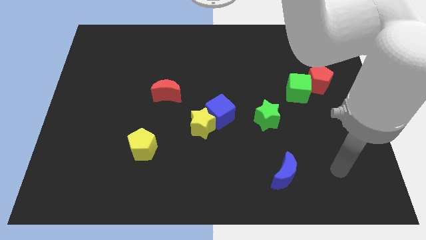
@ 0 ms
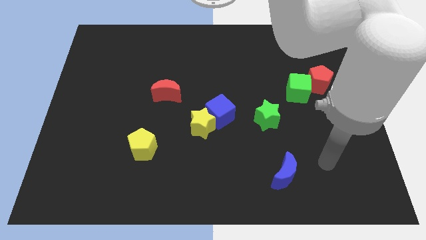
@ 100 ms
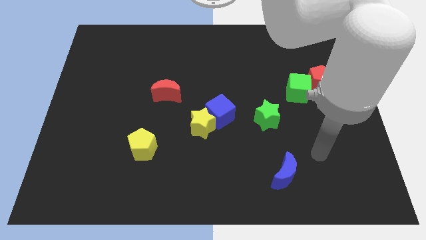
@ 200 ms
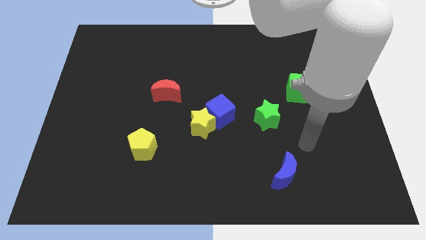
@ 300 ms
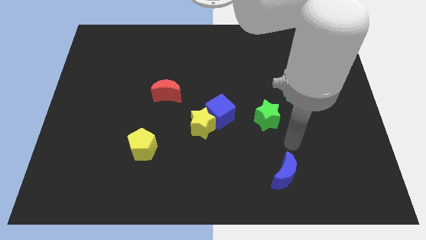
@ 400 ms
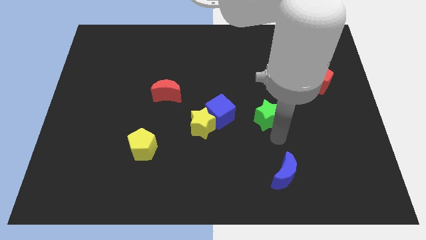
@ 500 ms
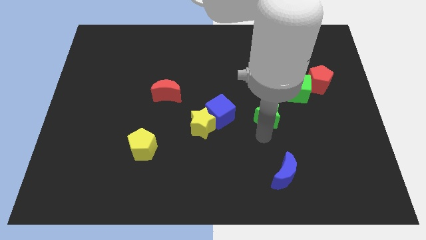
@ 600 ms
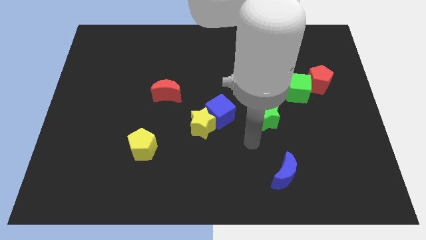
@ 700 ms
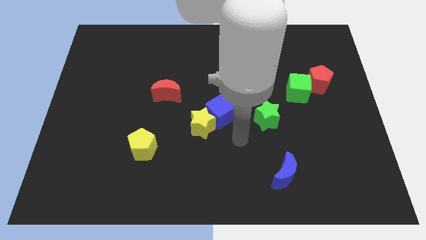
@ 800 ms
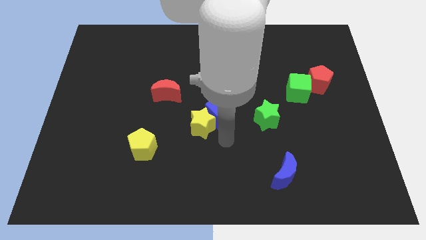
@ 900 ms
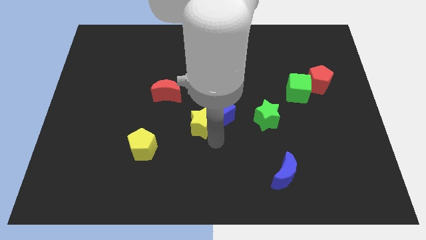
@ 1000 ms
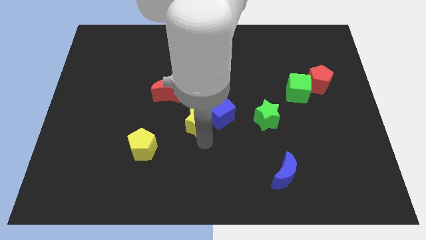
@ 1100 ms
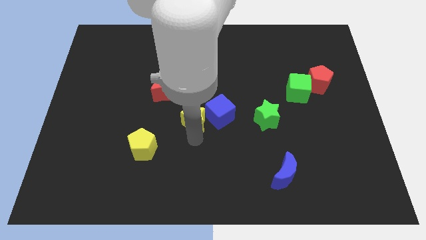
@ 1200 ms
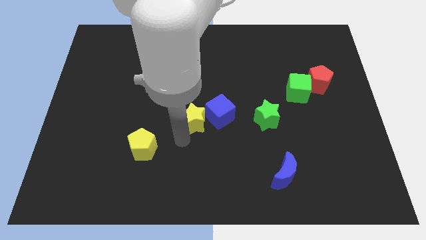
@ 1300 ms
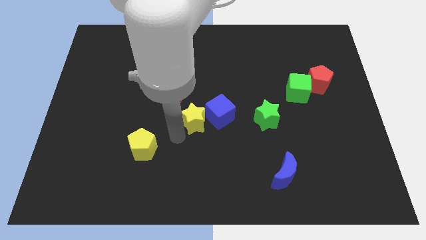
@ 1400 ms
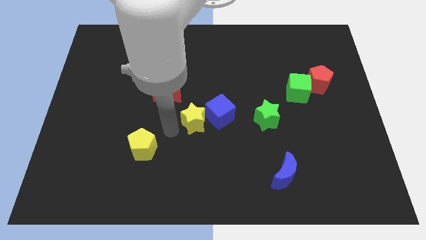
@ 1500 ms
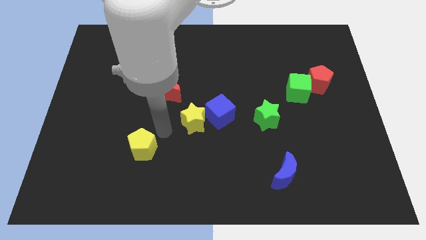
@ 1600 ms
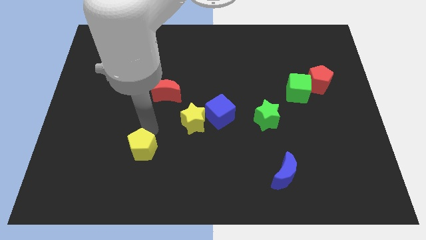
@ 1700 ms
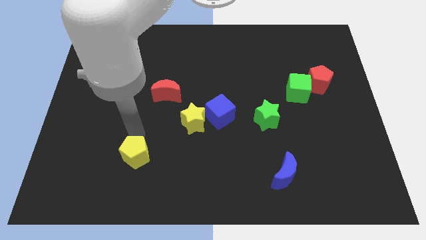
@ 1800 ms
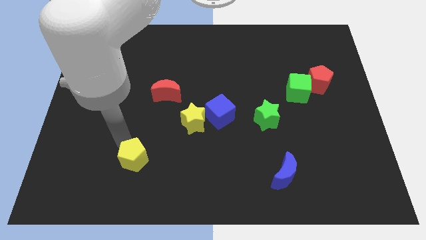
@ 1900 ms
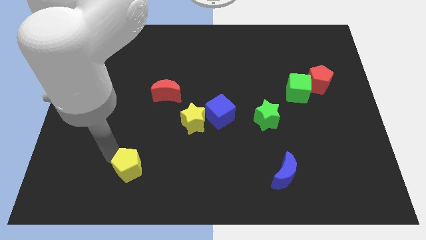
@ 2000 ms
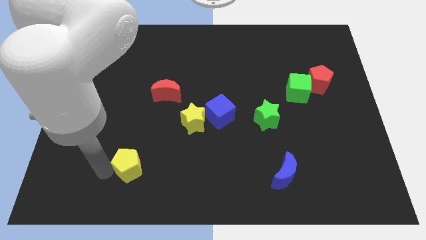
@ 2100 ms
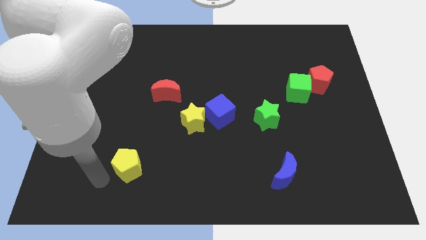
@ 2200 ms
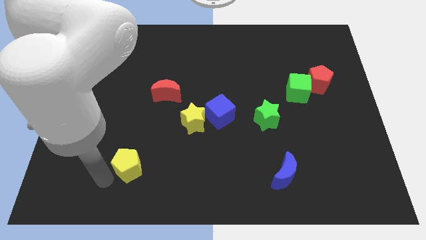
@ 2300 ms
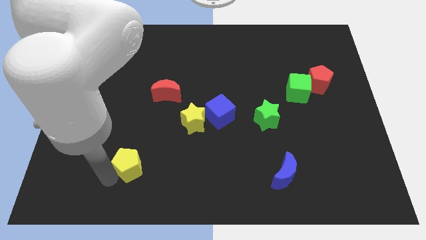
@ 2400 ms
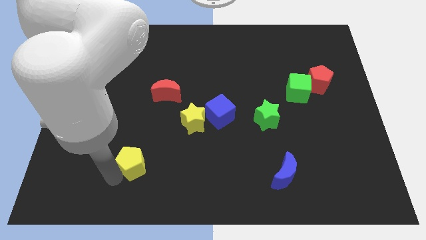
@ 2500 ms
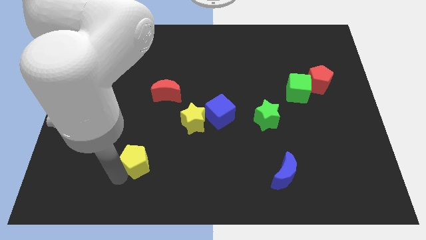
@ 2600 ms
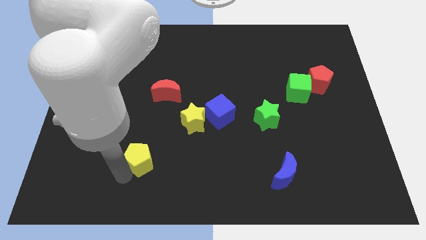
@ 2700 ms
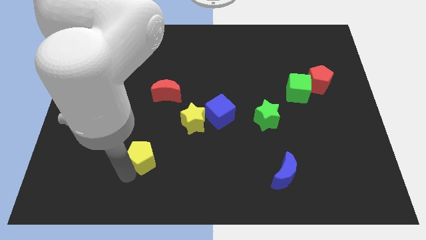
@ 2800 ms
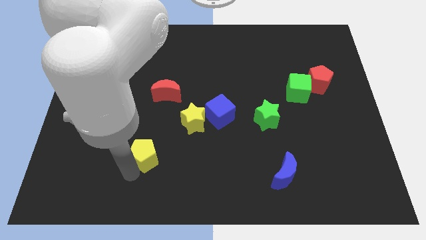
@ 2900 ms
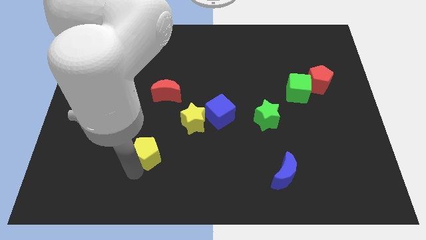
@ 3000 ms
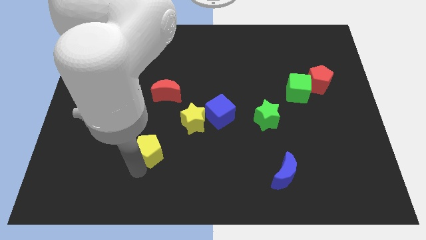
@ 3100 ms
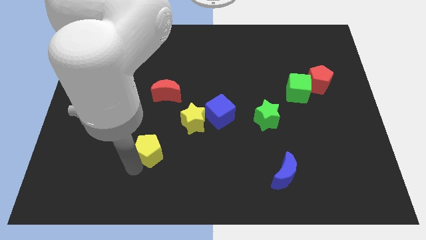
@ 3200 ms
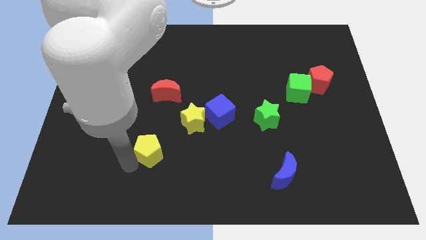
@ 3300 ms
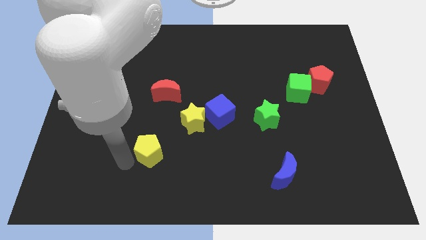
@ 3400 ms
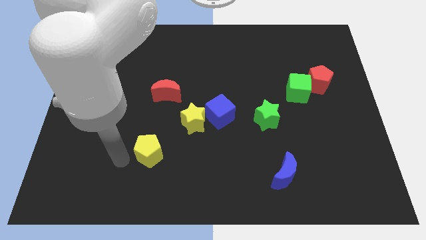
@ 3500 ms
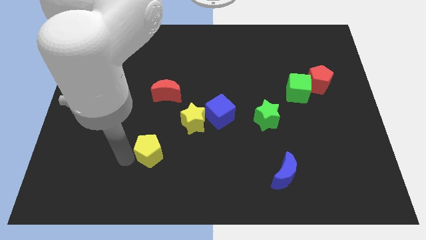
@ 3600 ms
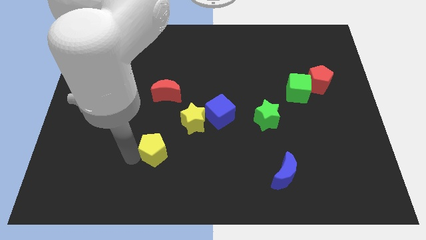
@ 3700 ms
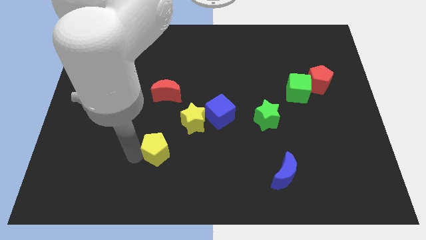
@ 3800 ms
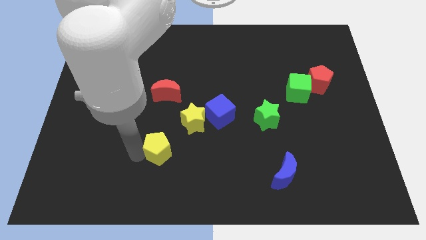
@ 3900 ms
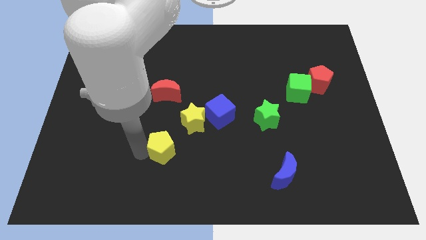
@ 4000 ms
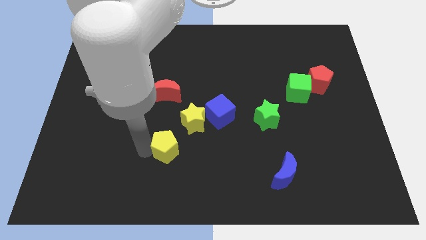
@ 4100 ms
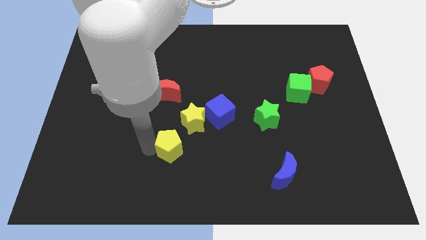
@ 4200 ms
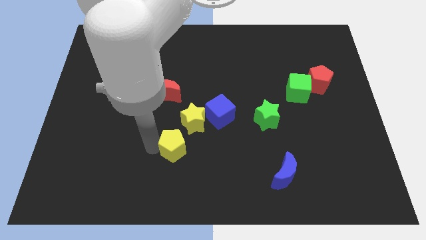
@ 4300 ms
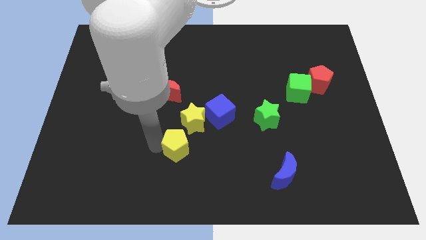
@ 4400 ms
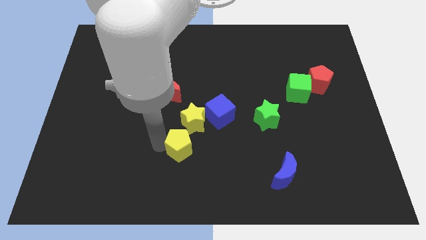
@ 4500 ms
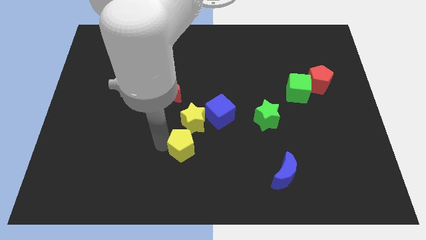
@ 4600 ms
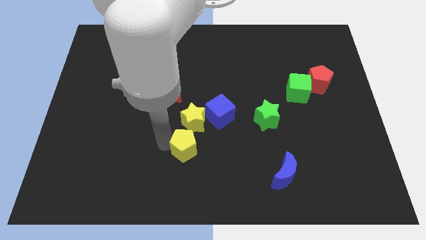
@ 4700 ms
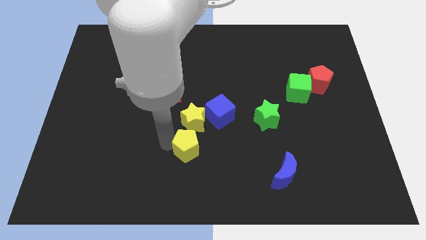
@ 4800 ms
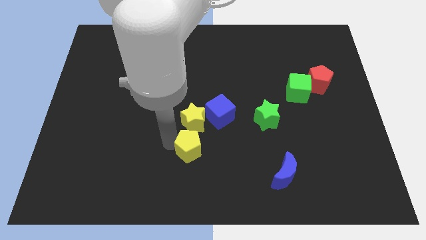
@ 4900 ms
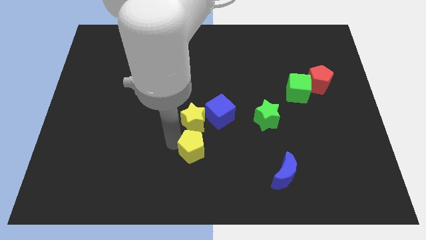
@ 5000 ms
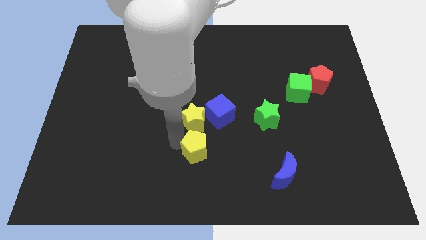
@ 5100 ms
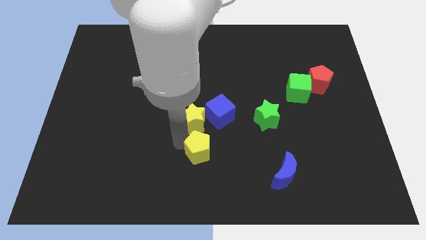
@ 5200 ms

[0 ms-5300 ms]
push the yellow pentagon below the blue cube

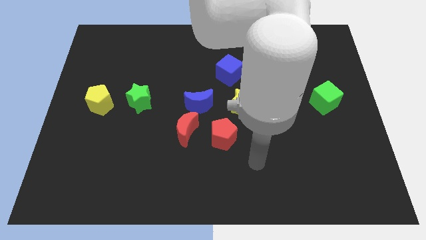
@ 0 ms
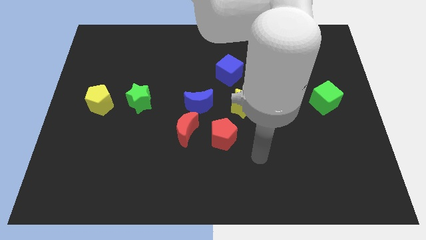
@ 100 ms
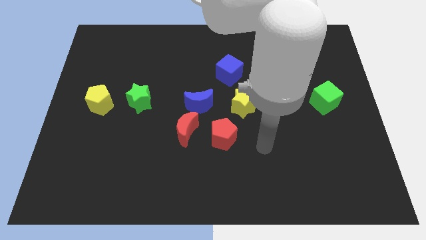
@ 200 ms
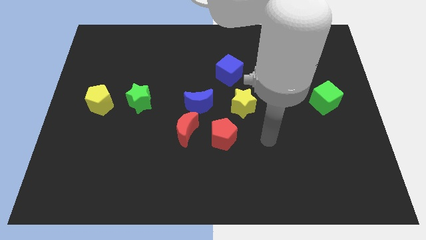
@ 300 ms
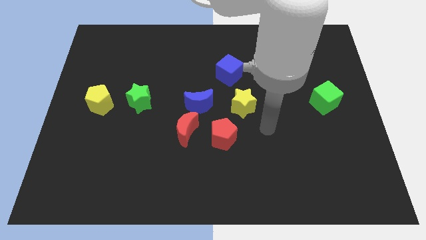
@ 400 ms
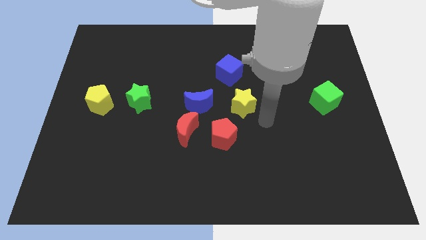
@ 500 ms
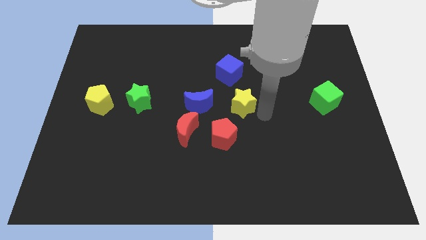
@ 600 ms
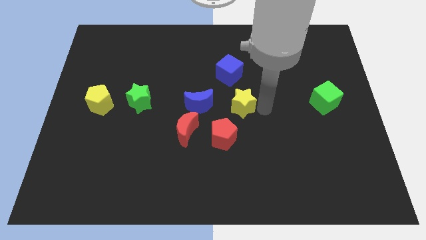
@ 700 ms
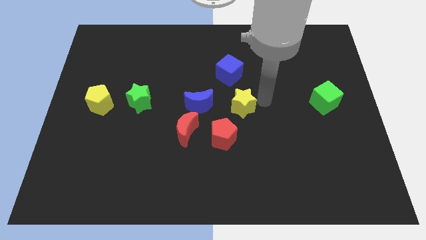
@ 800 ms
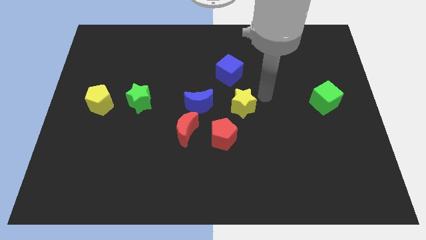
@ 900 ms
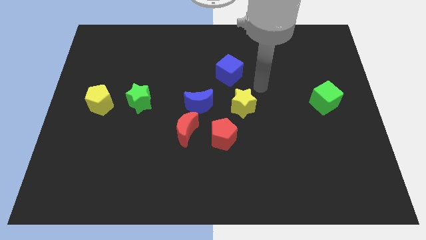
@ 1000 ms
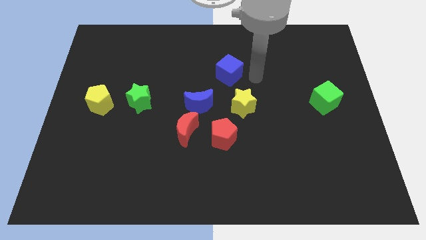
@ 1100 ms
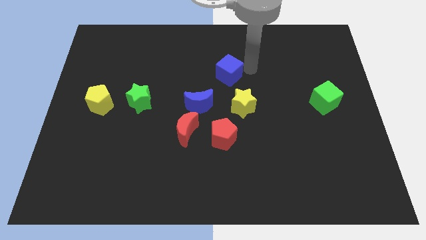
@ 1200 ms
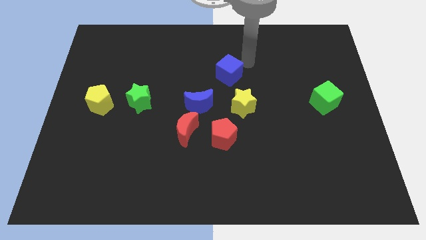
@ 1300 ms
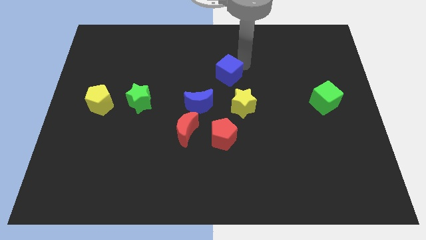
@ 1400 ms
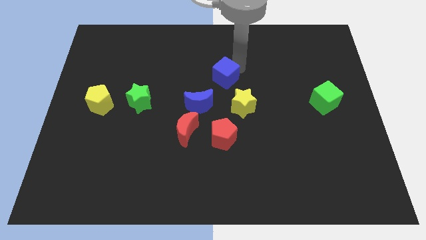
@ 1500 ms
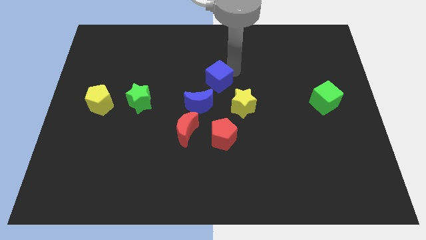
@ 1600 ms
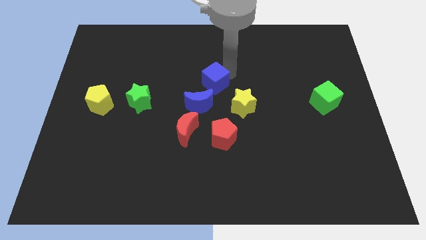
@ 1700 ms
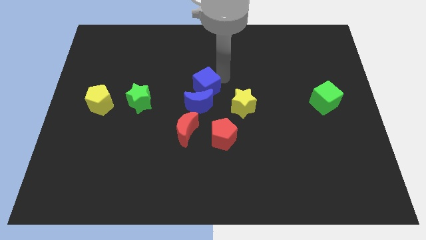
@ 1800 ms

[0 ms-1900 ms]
put the blue cube above the red moon

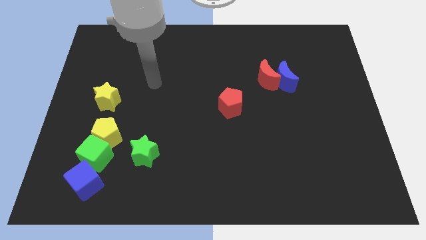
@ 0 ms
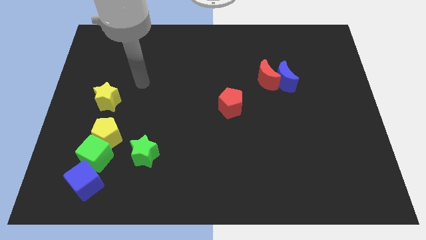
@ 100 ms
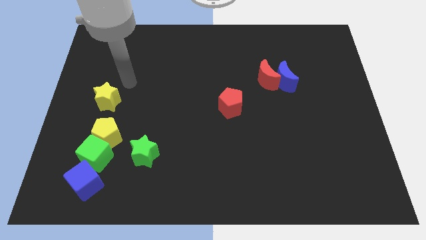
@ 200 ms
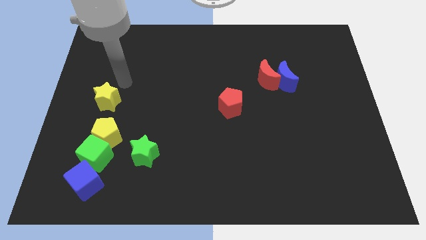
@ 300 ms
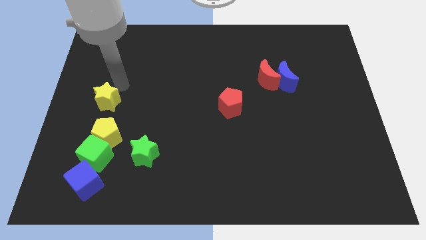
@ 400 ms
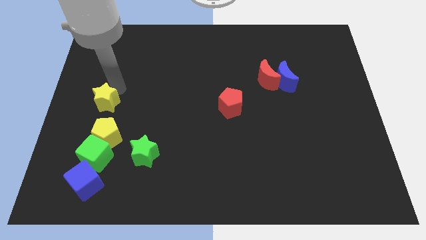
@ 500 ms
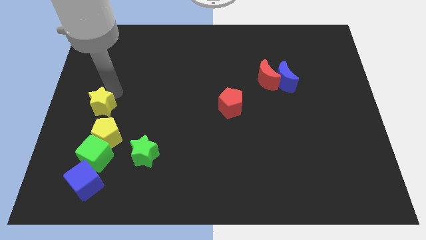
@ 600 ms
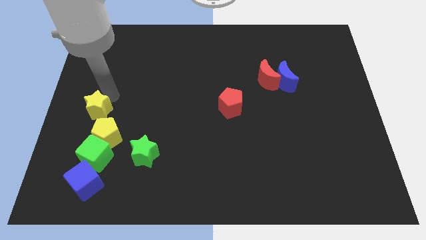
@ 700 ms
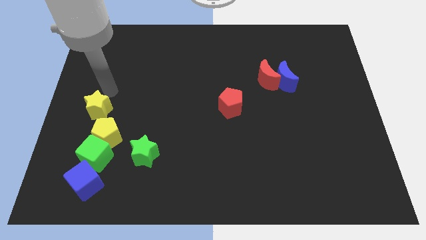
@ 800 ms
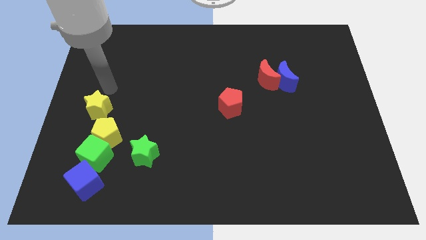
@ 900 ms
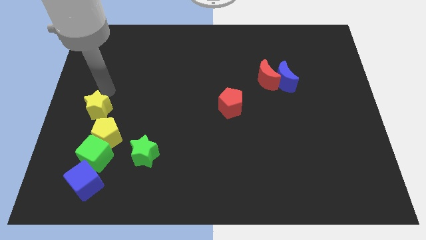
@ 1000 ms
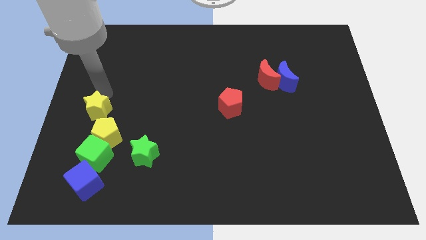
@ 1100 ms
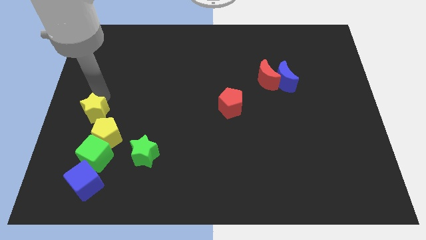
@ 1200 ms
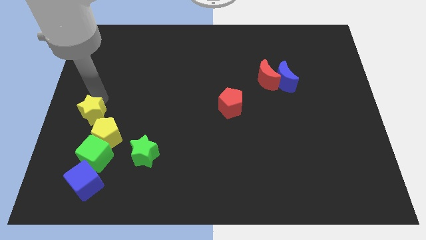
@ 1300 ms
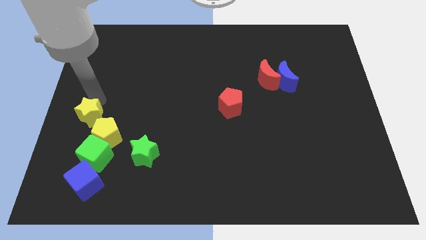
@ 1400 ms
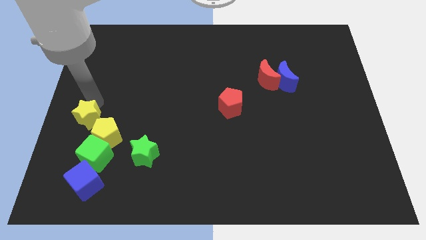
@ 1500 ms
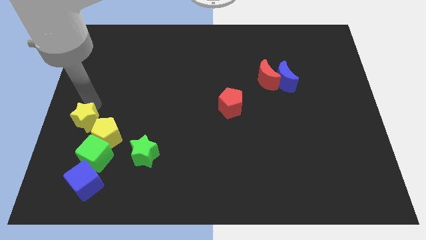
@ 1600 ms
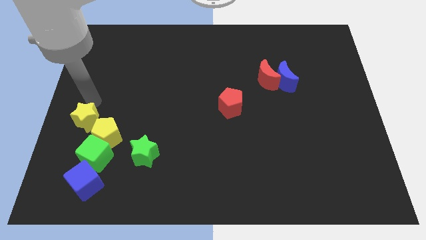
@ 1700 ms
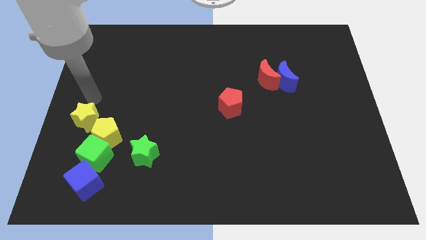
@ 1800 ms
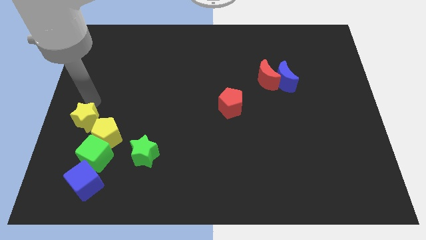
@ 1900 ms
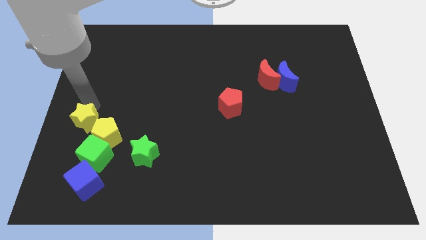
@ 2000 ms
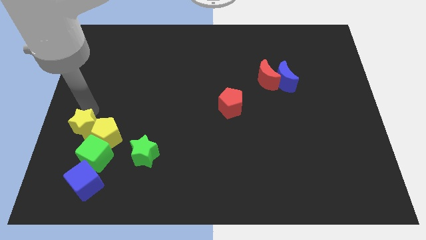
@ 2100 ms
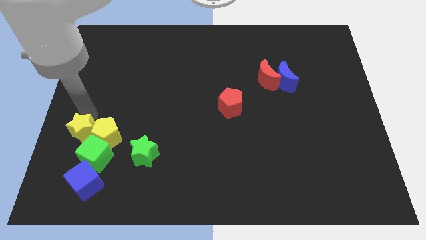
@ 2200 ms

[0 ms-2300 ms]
push the yellow star to the bottom left of the yellow pentagon
